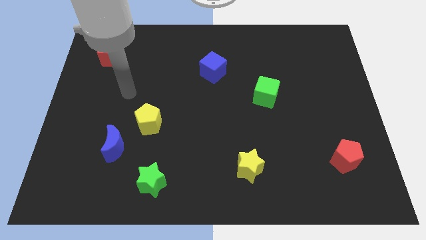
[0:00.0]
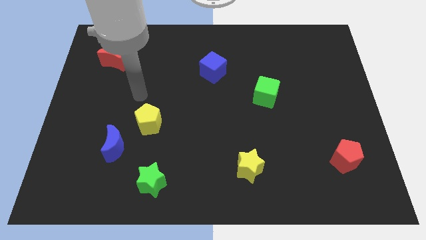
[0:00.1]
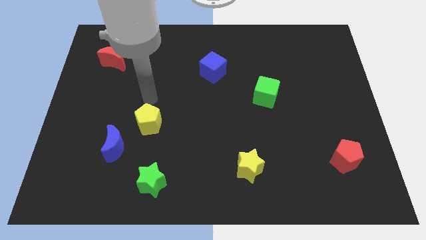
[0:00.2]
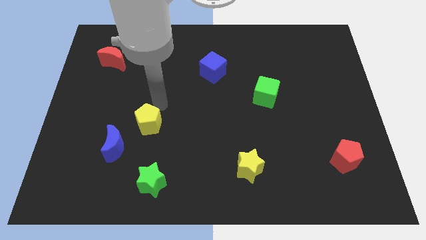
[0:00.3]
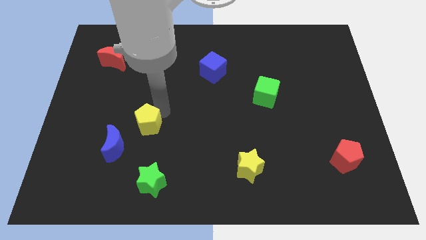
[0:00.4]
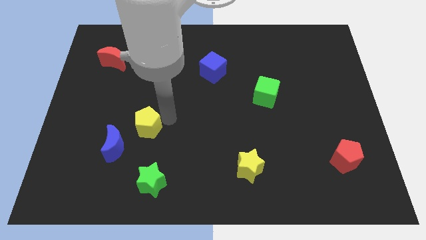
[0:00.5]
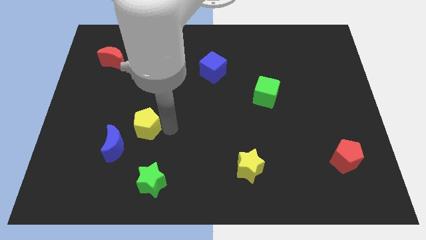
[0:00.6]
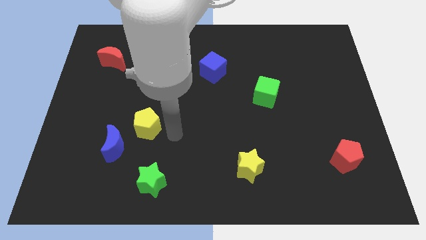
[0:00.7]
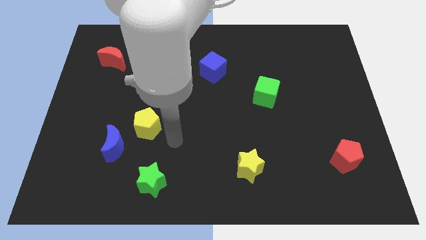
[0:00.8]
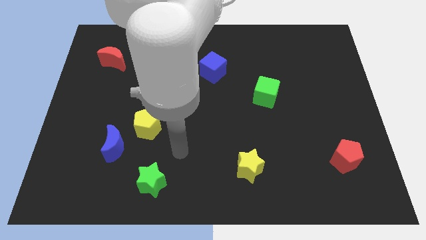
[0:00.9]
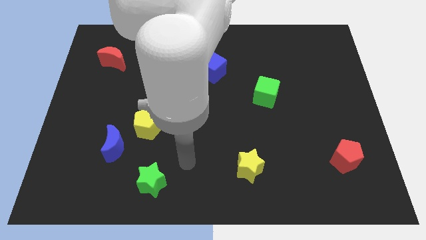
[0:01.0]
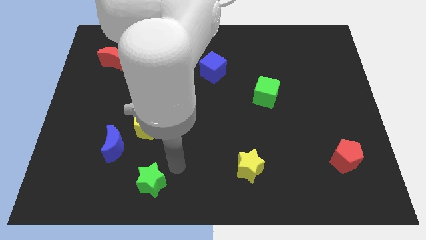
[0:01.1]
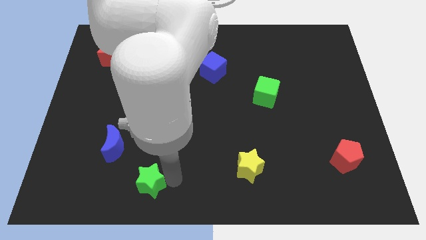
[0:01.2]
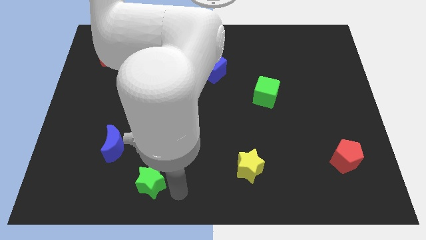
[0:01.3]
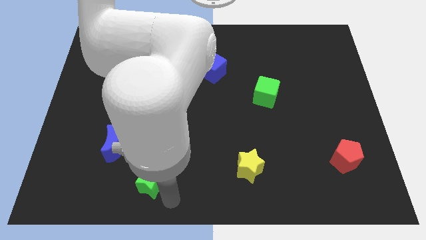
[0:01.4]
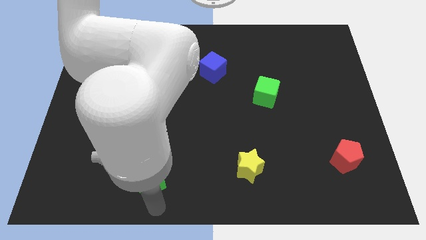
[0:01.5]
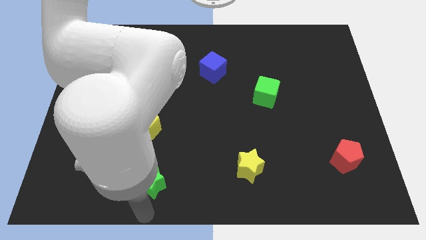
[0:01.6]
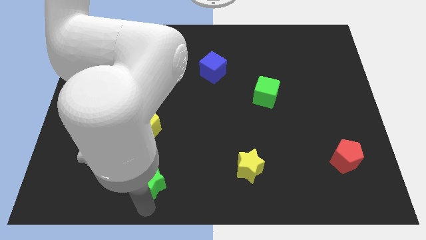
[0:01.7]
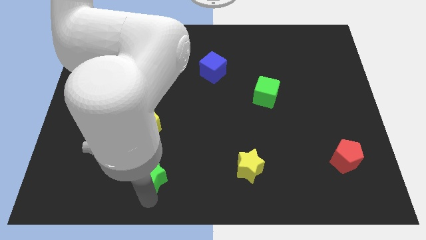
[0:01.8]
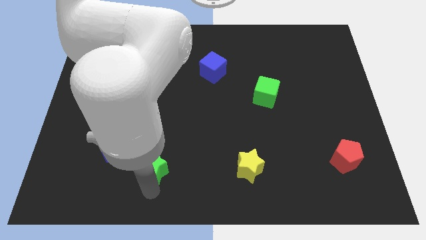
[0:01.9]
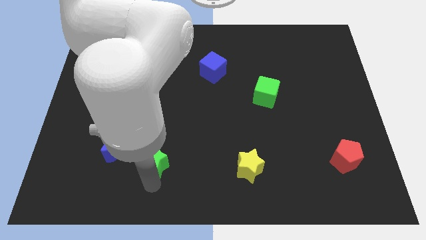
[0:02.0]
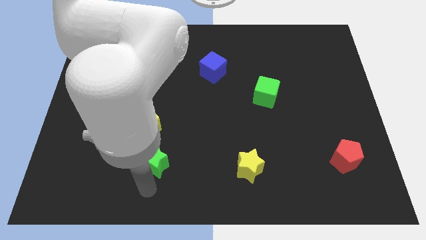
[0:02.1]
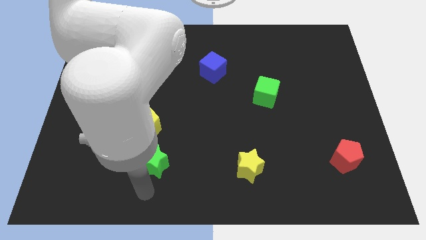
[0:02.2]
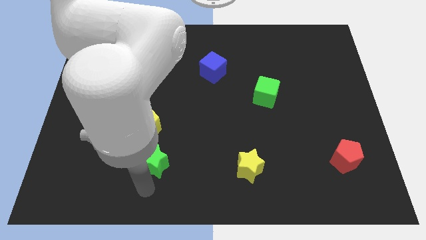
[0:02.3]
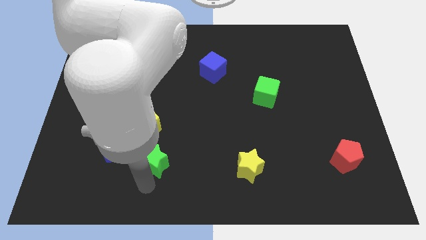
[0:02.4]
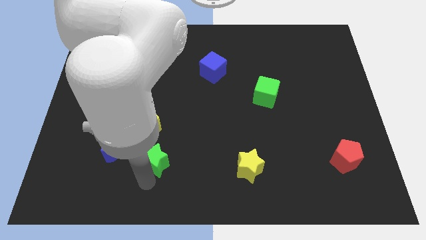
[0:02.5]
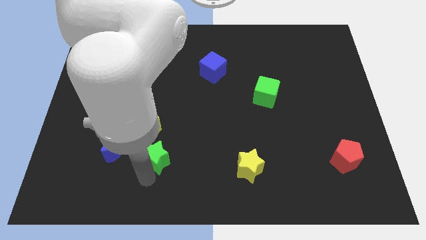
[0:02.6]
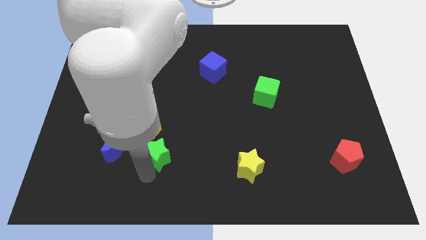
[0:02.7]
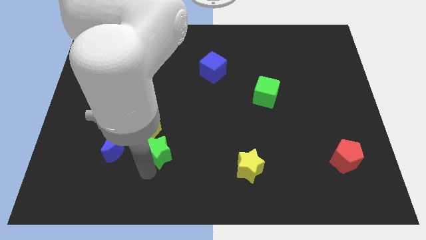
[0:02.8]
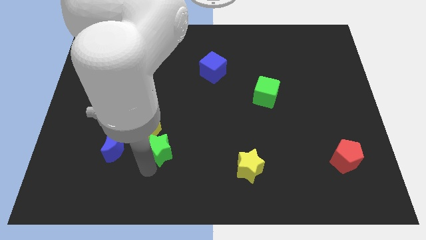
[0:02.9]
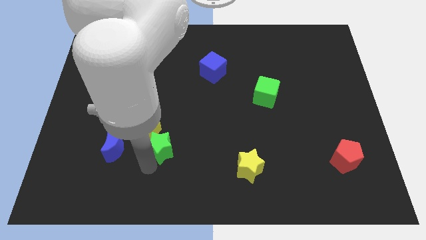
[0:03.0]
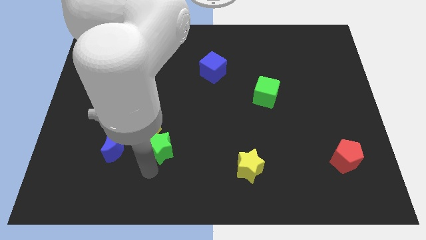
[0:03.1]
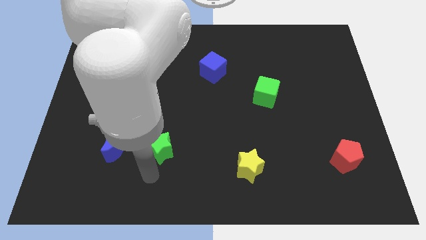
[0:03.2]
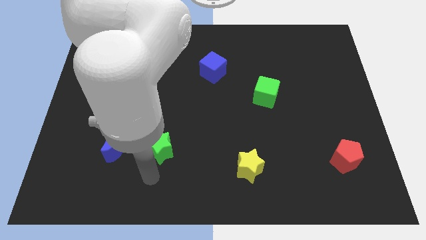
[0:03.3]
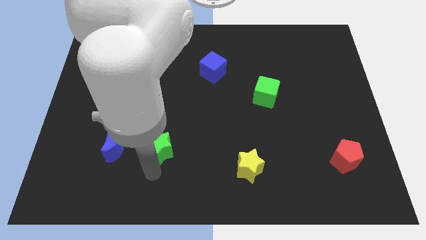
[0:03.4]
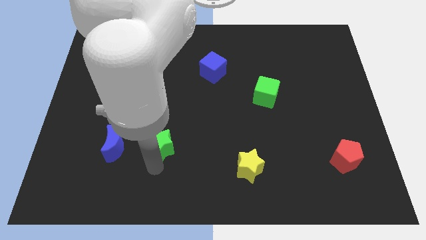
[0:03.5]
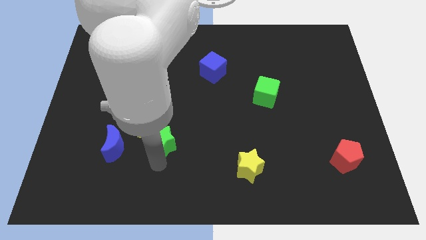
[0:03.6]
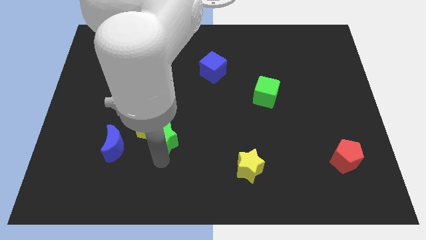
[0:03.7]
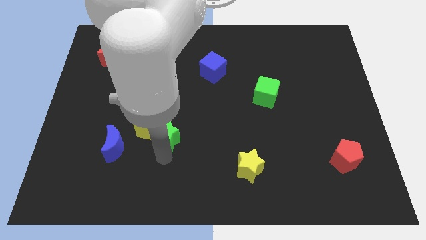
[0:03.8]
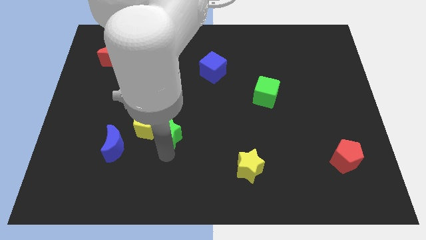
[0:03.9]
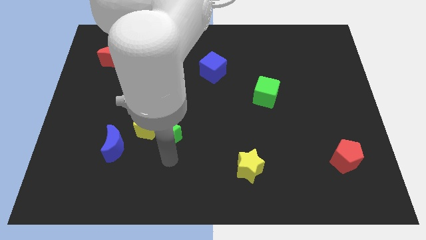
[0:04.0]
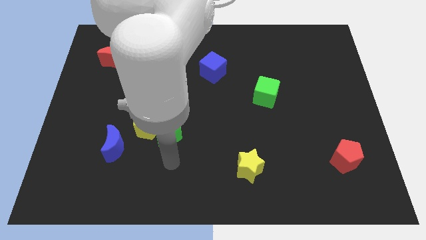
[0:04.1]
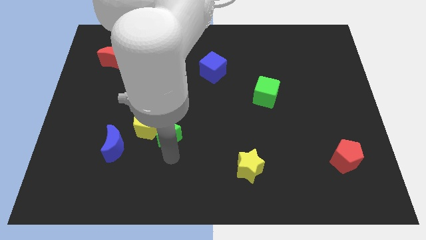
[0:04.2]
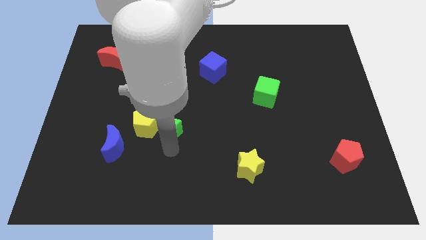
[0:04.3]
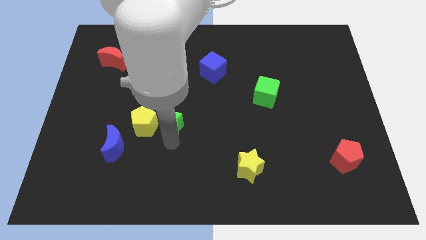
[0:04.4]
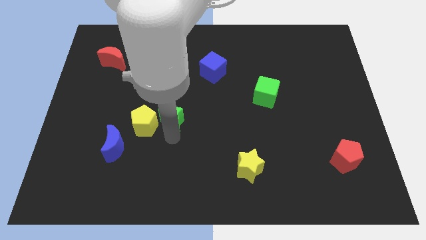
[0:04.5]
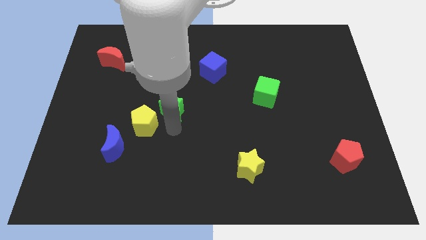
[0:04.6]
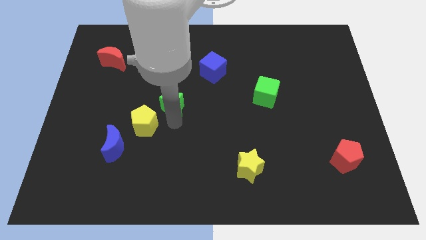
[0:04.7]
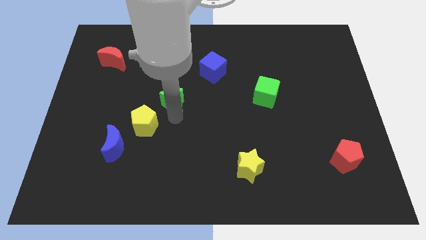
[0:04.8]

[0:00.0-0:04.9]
move the green star upwards

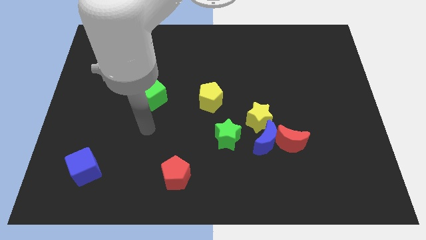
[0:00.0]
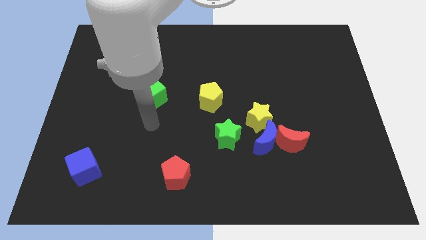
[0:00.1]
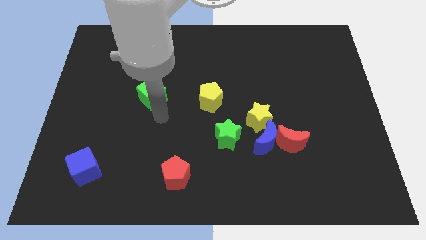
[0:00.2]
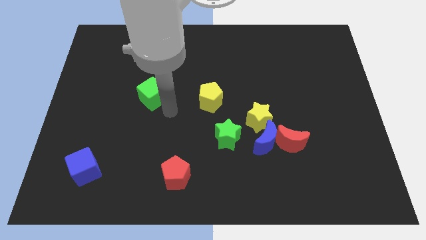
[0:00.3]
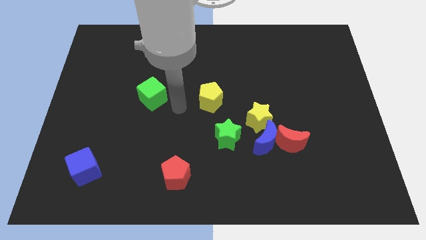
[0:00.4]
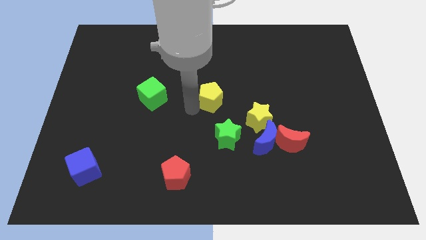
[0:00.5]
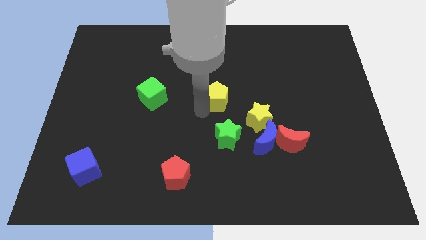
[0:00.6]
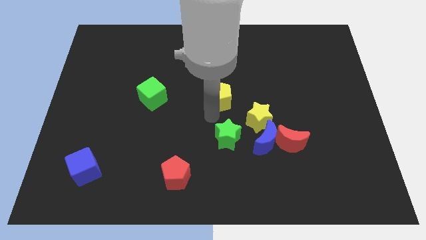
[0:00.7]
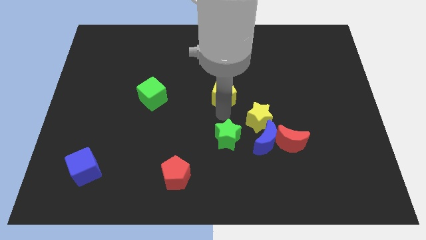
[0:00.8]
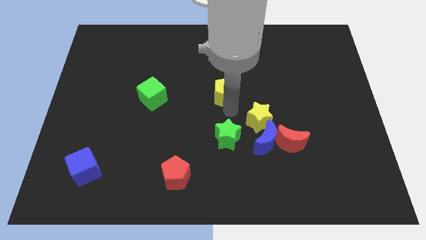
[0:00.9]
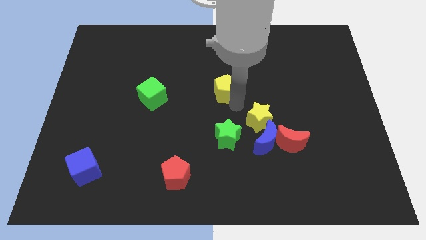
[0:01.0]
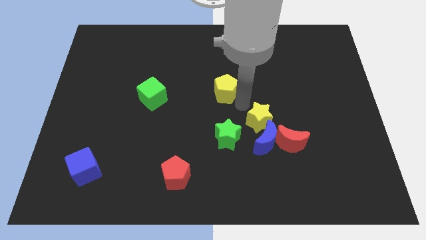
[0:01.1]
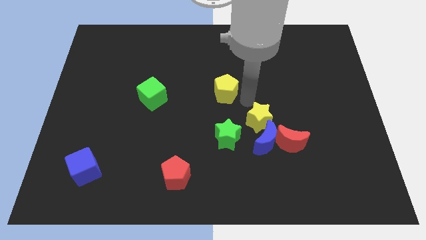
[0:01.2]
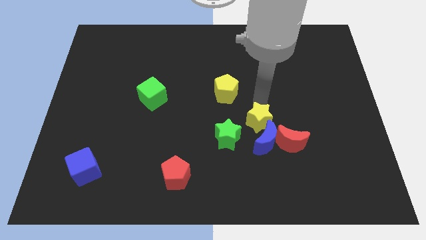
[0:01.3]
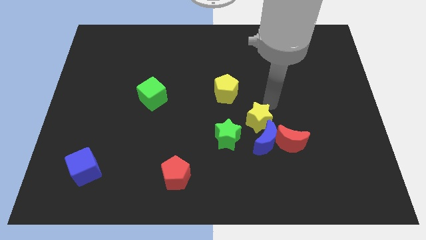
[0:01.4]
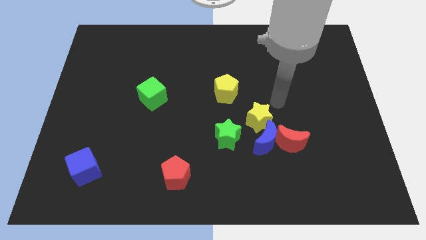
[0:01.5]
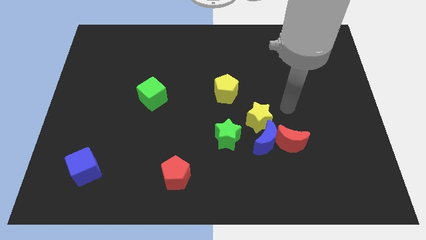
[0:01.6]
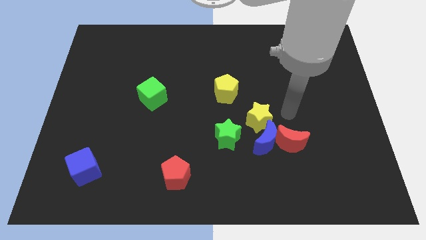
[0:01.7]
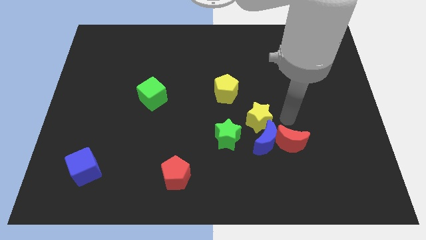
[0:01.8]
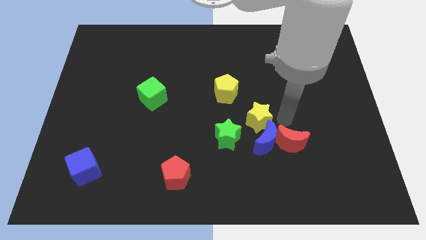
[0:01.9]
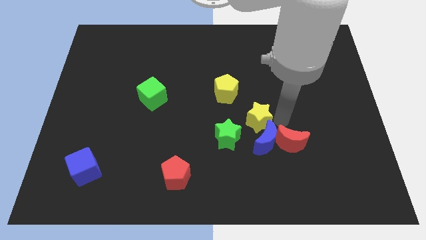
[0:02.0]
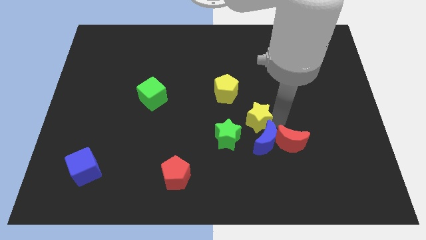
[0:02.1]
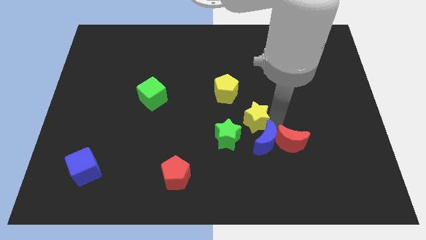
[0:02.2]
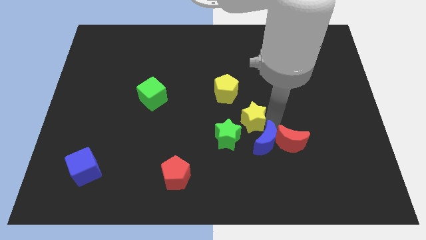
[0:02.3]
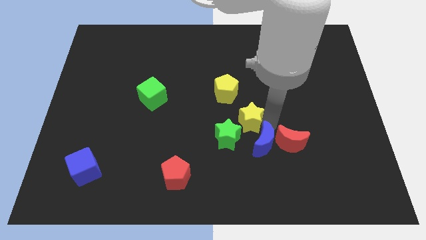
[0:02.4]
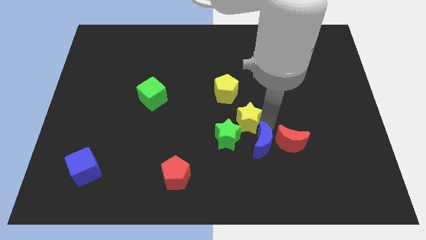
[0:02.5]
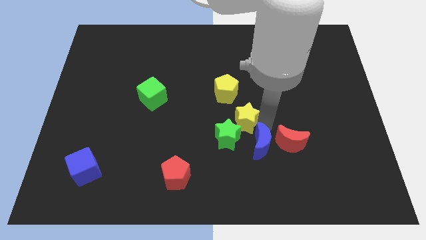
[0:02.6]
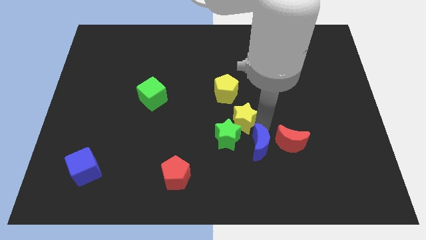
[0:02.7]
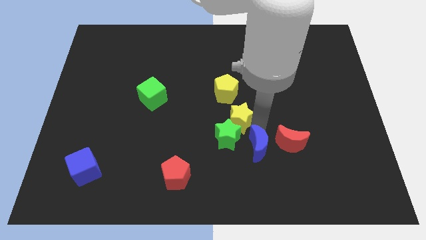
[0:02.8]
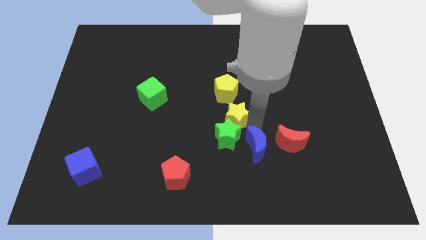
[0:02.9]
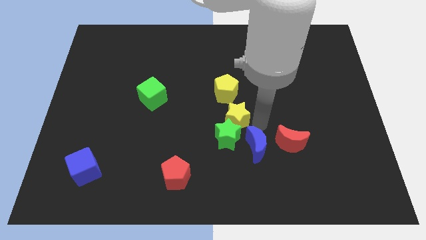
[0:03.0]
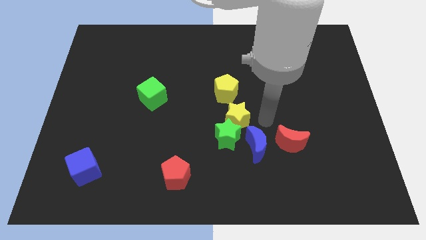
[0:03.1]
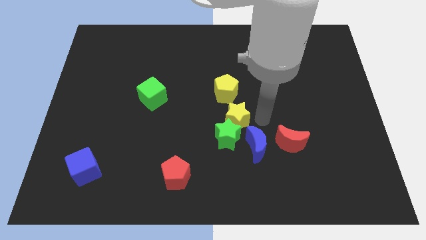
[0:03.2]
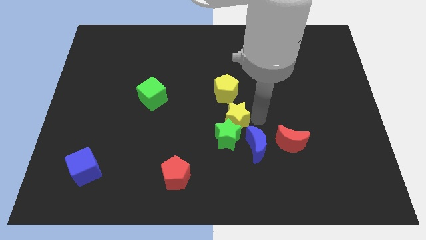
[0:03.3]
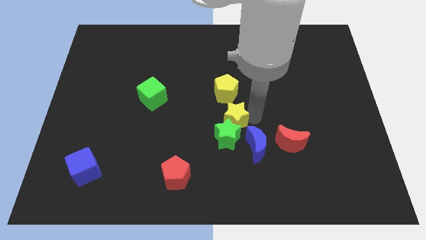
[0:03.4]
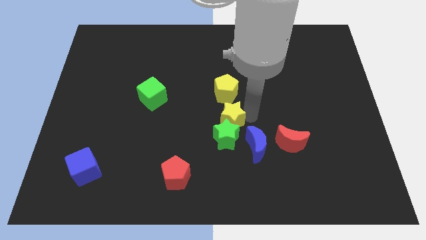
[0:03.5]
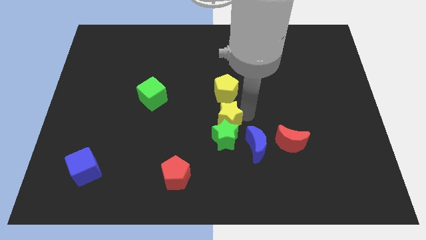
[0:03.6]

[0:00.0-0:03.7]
move the yellow star to the left a bit
